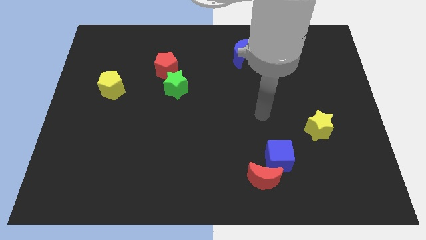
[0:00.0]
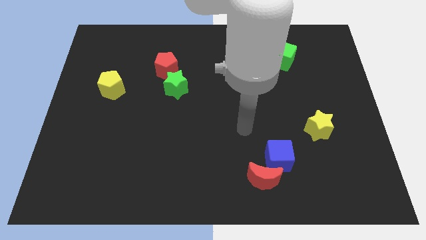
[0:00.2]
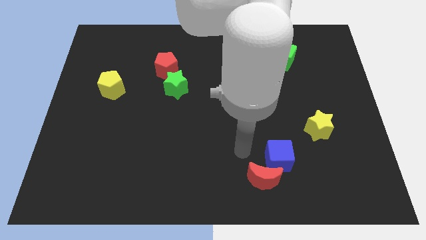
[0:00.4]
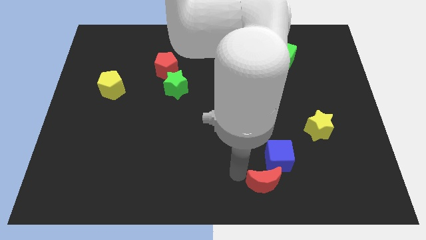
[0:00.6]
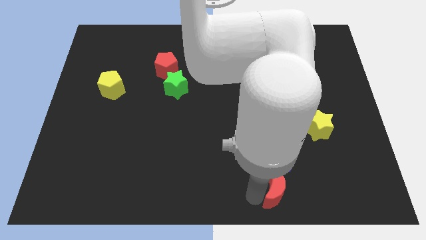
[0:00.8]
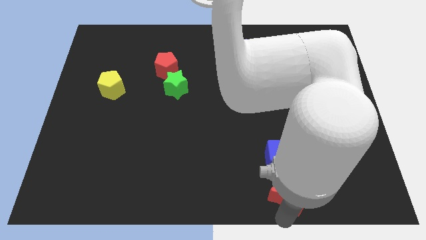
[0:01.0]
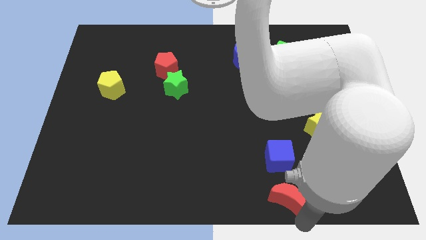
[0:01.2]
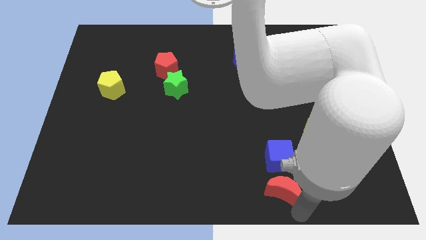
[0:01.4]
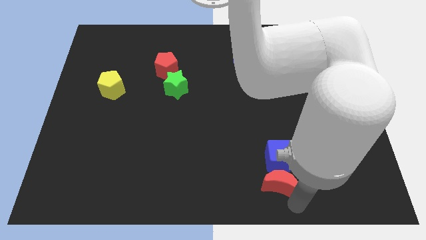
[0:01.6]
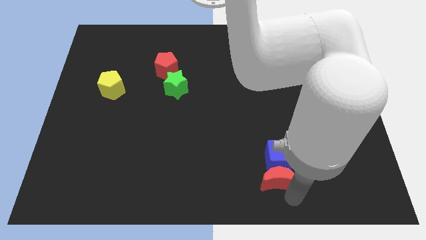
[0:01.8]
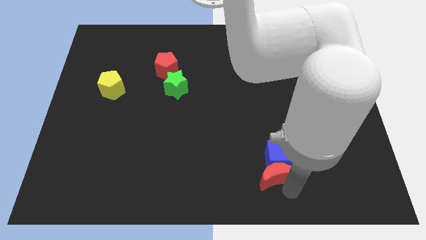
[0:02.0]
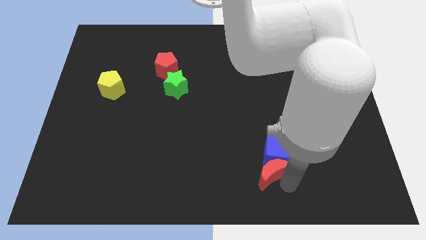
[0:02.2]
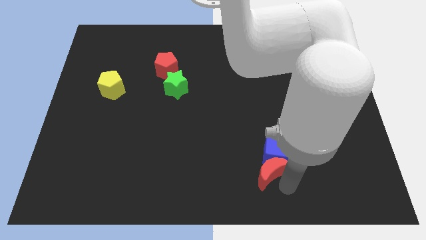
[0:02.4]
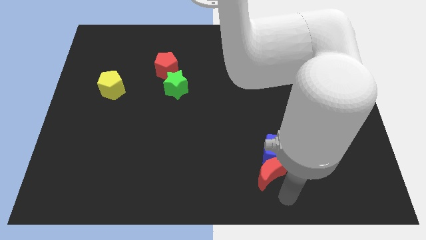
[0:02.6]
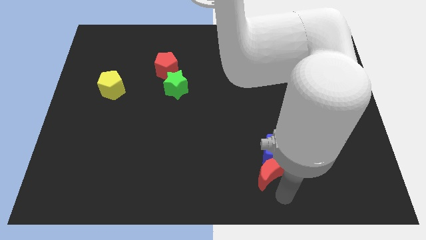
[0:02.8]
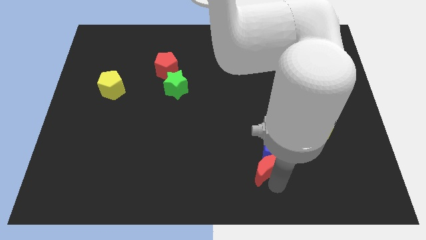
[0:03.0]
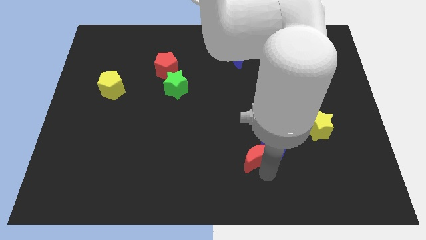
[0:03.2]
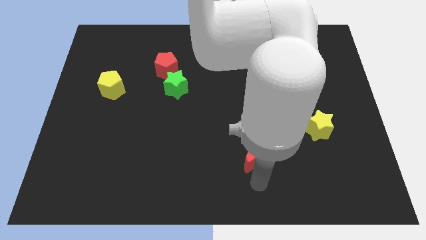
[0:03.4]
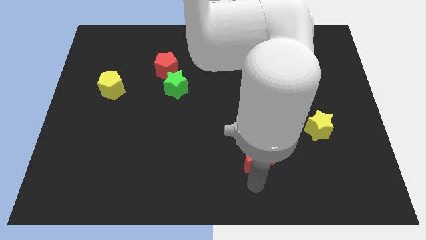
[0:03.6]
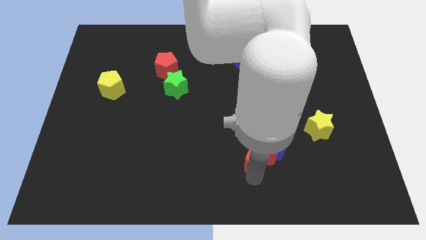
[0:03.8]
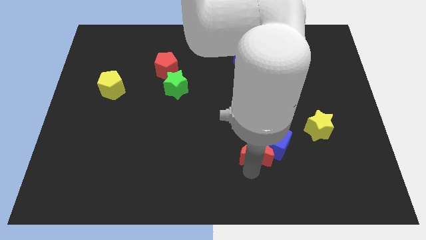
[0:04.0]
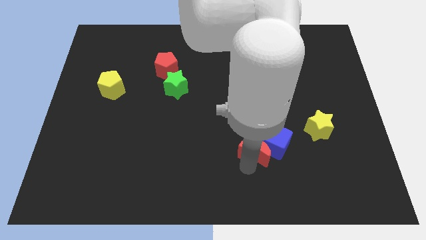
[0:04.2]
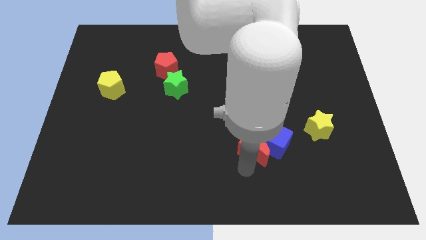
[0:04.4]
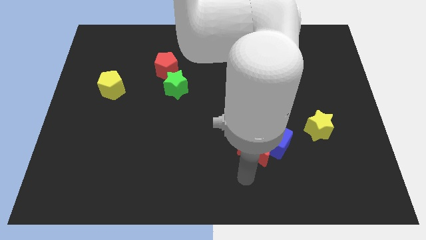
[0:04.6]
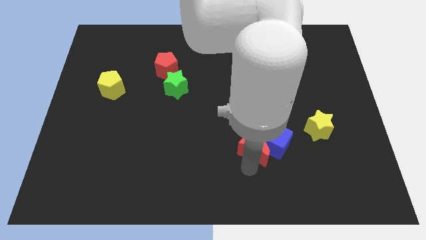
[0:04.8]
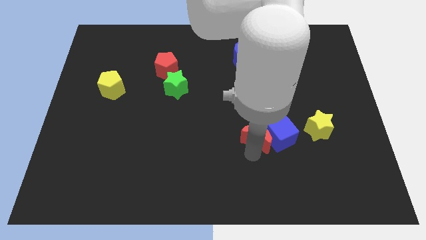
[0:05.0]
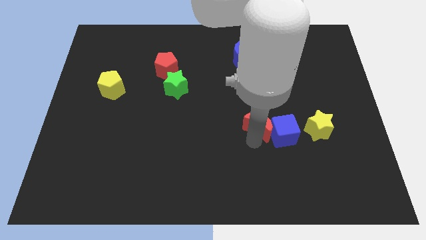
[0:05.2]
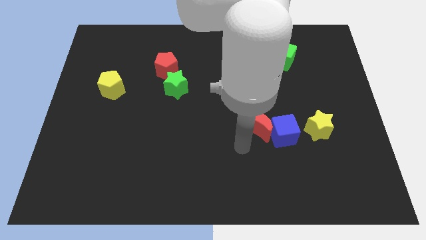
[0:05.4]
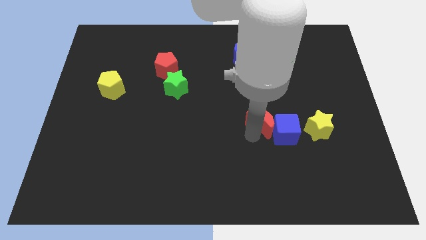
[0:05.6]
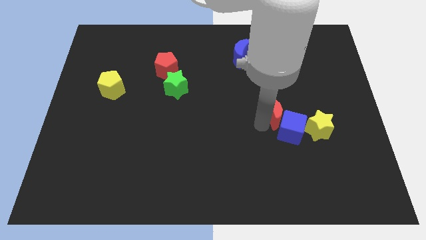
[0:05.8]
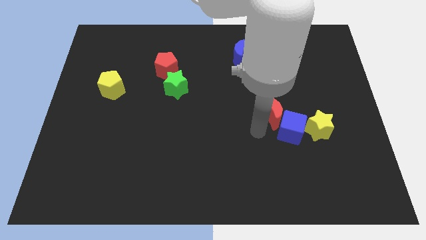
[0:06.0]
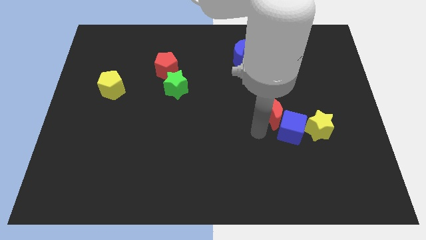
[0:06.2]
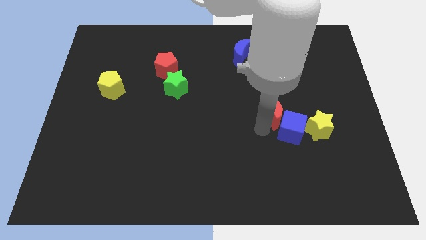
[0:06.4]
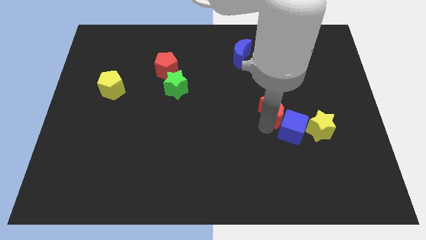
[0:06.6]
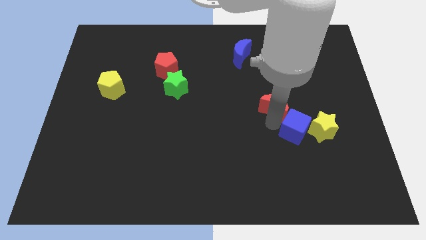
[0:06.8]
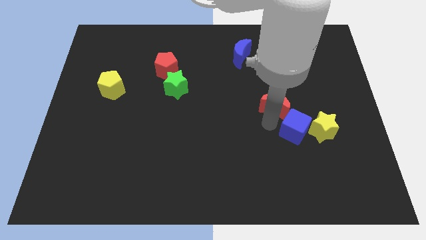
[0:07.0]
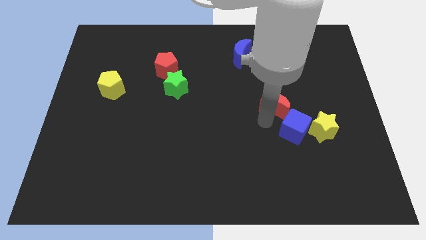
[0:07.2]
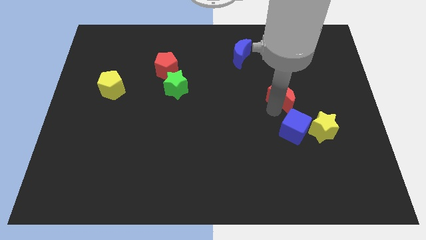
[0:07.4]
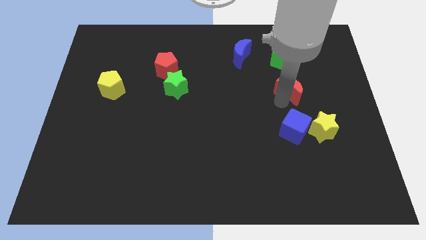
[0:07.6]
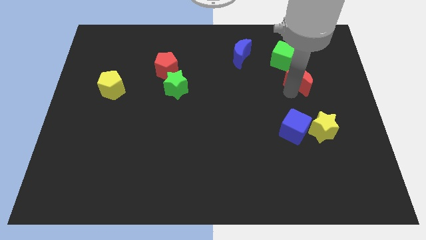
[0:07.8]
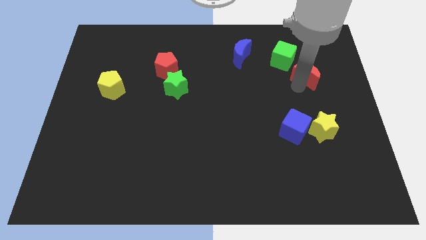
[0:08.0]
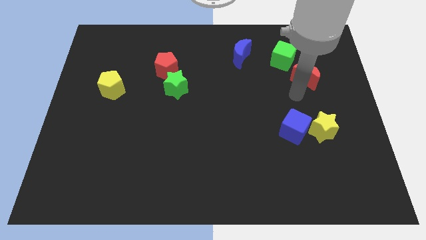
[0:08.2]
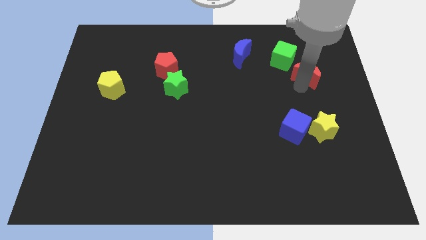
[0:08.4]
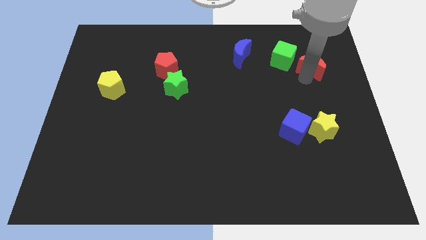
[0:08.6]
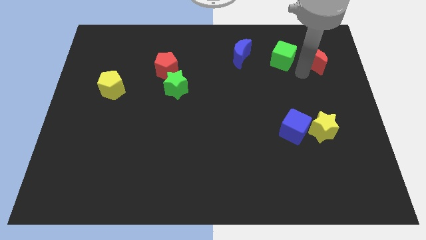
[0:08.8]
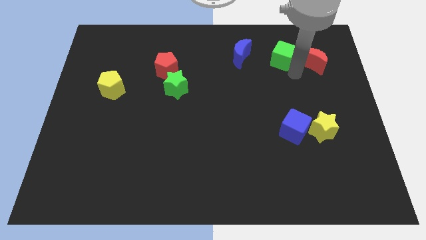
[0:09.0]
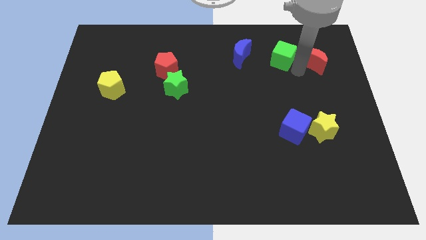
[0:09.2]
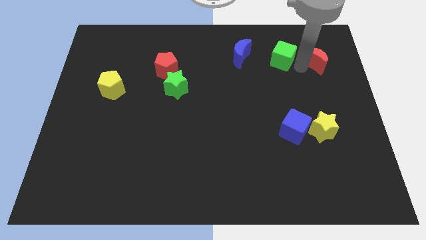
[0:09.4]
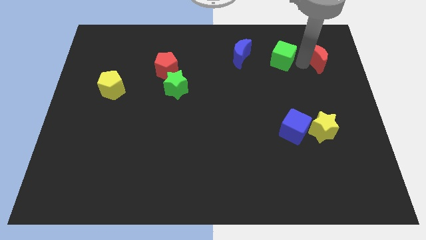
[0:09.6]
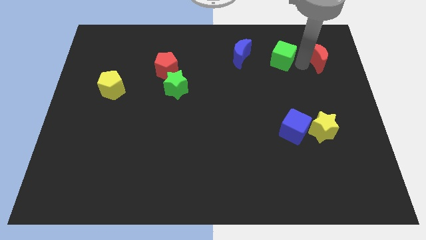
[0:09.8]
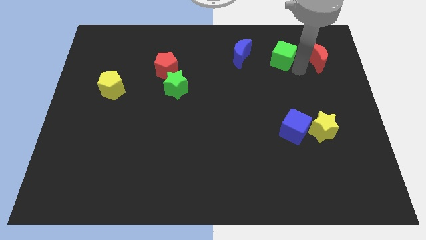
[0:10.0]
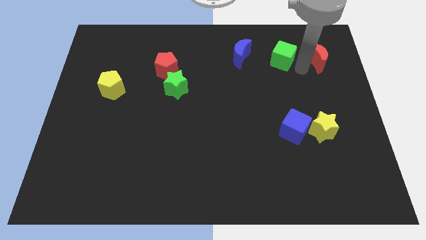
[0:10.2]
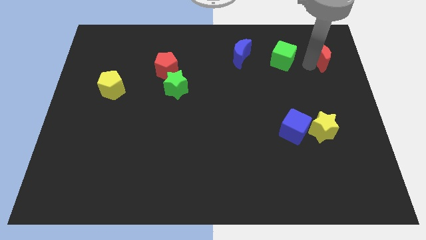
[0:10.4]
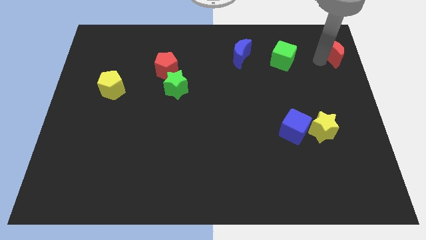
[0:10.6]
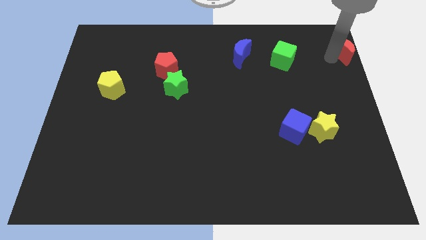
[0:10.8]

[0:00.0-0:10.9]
move the red moon to the upper right corner

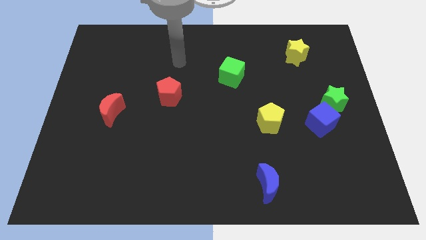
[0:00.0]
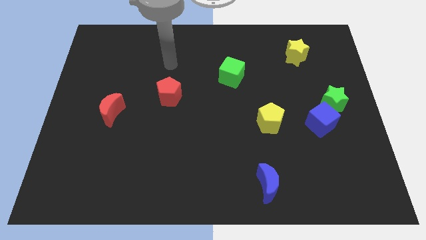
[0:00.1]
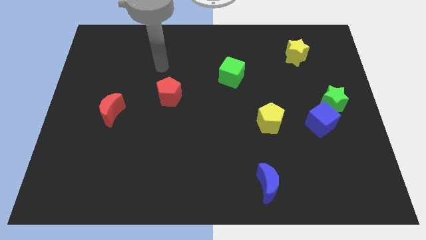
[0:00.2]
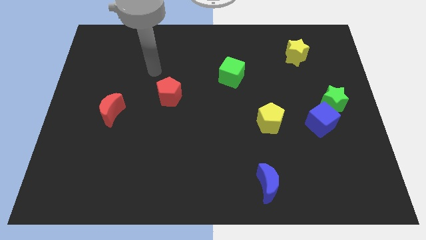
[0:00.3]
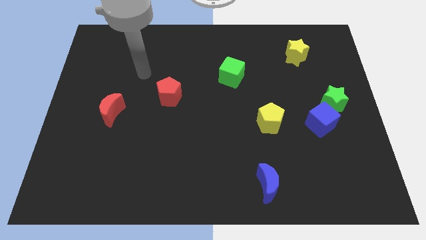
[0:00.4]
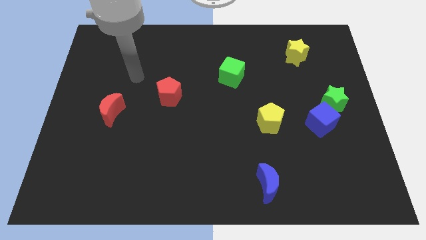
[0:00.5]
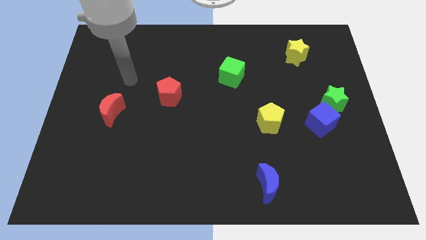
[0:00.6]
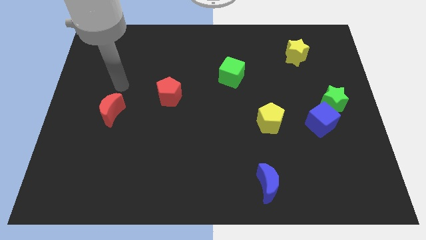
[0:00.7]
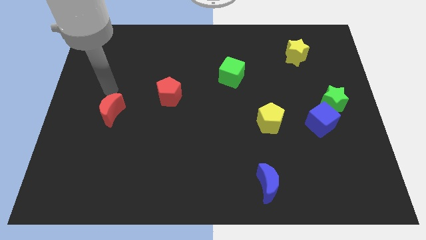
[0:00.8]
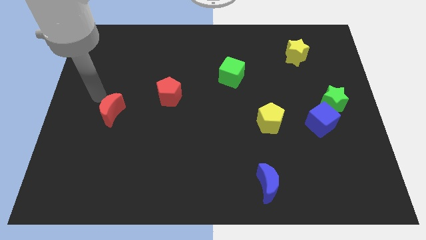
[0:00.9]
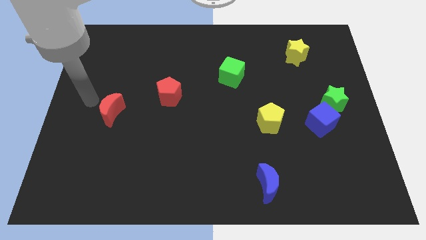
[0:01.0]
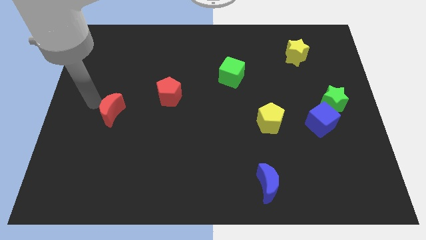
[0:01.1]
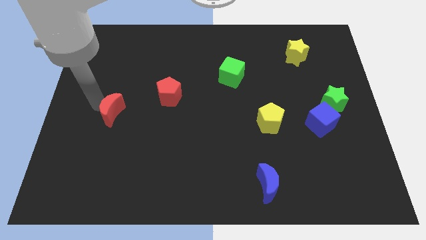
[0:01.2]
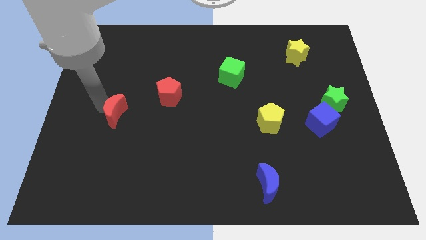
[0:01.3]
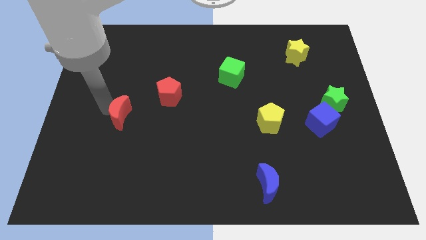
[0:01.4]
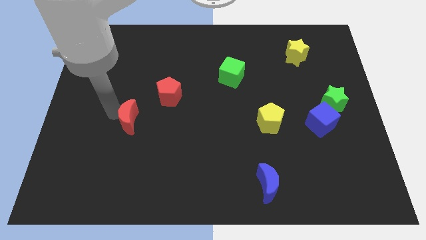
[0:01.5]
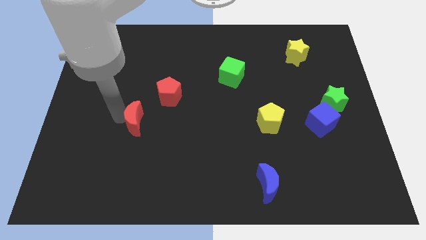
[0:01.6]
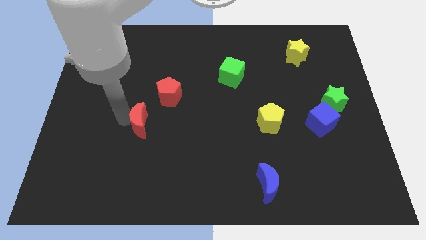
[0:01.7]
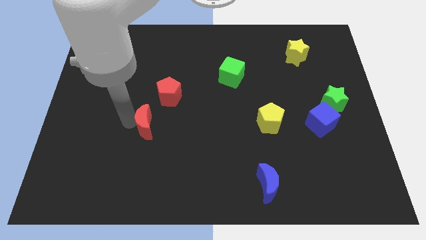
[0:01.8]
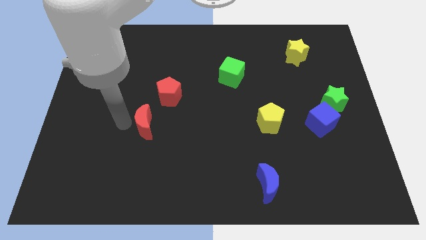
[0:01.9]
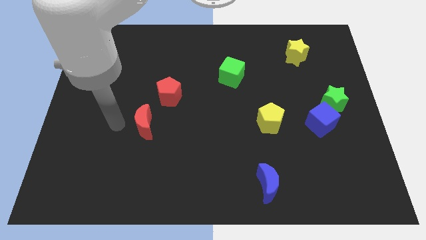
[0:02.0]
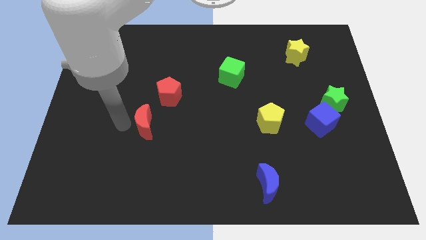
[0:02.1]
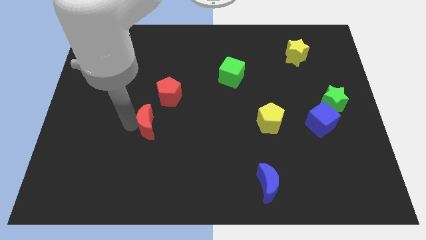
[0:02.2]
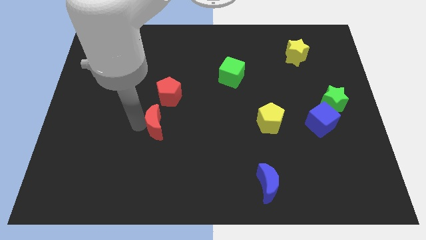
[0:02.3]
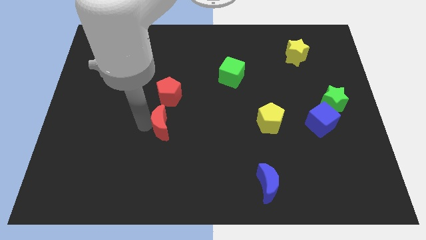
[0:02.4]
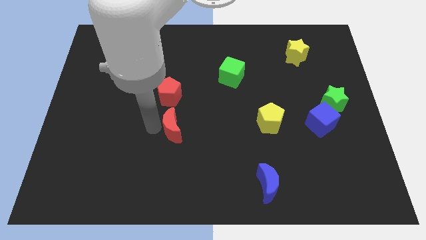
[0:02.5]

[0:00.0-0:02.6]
move the red moon to the center of the board
